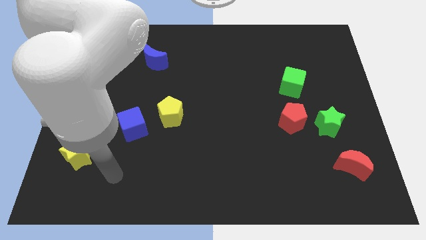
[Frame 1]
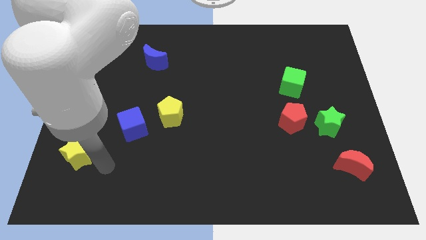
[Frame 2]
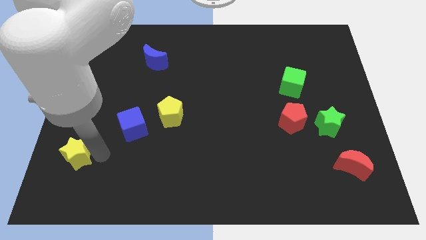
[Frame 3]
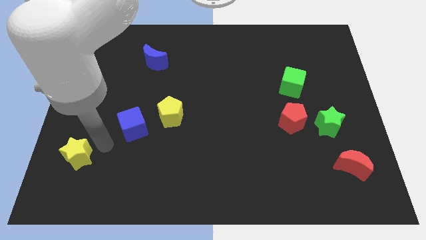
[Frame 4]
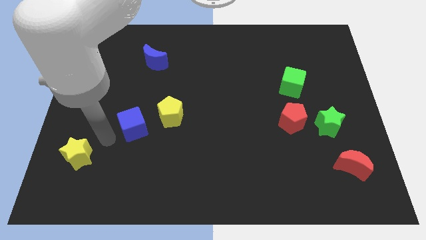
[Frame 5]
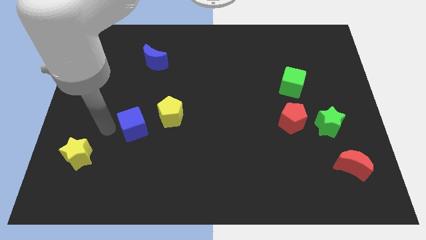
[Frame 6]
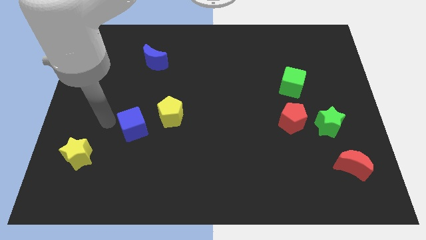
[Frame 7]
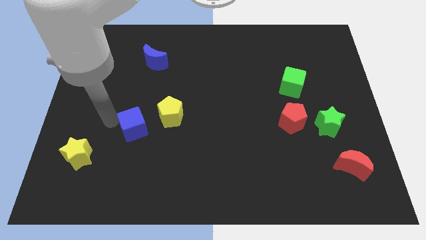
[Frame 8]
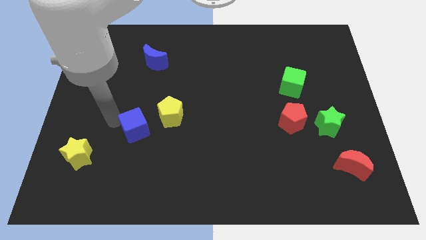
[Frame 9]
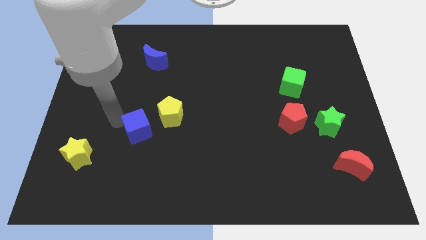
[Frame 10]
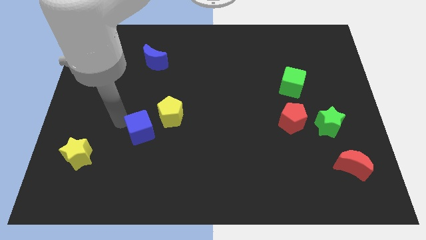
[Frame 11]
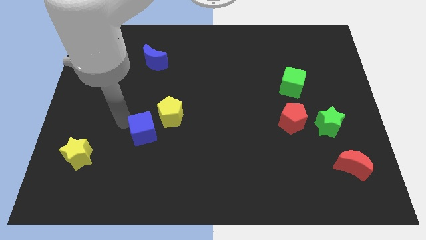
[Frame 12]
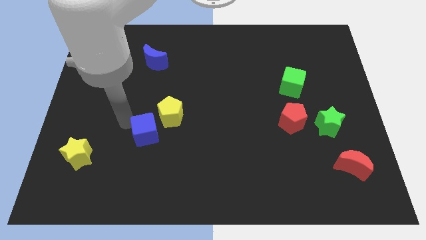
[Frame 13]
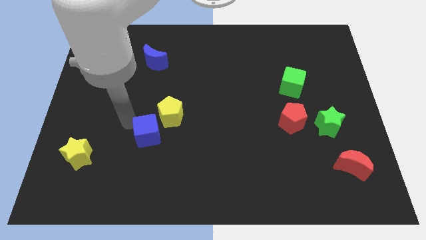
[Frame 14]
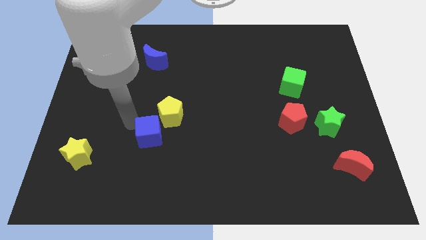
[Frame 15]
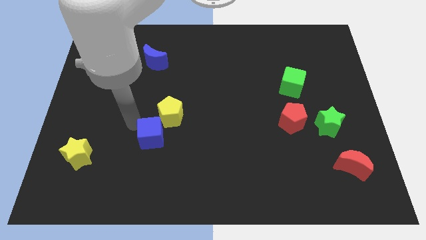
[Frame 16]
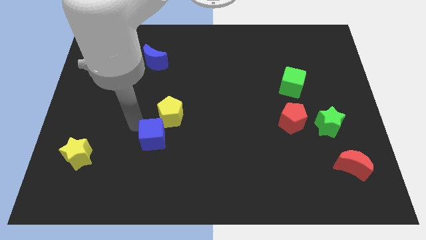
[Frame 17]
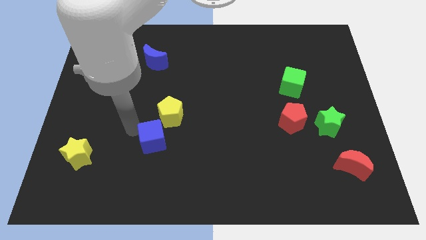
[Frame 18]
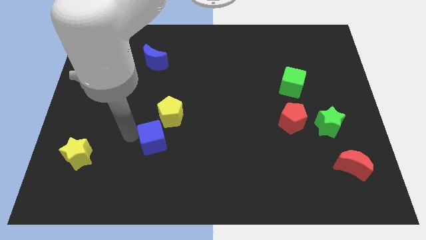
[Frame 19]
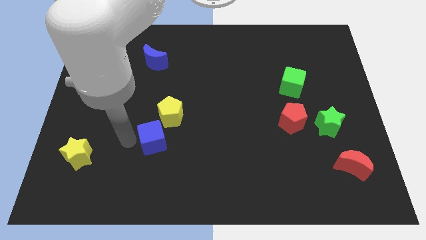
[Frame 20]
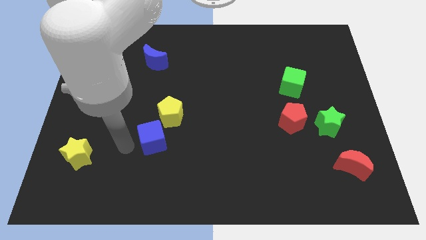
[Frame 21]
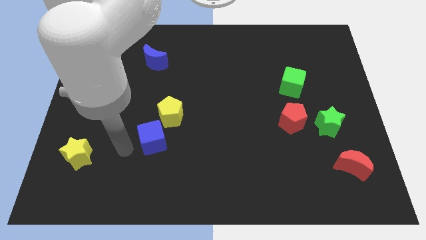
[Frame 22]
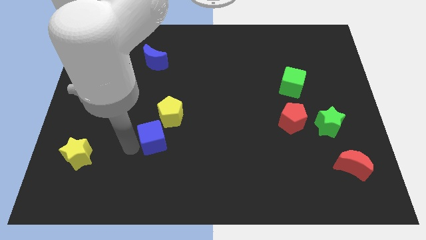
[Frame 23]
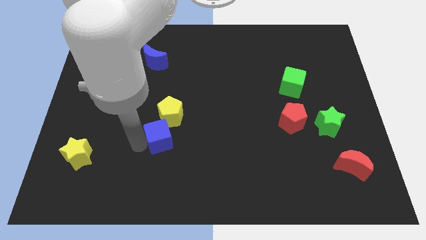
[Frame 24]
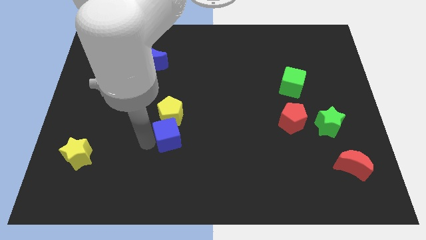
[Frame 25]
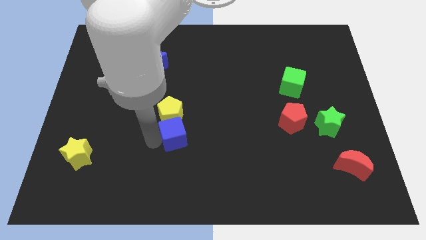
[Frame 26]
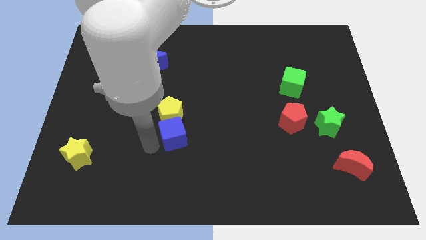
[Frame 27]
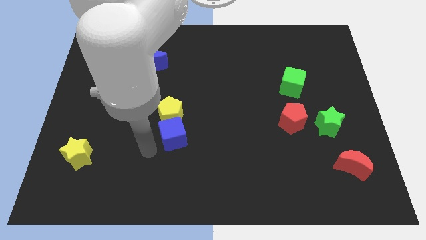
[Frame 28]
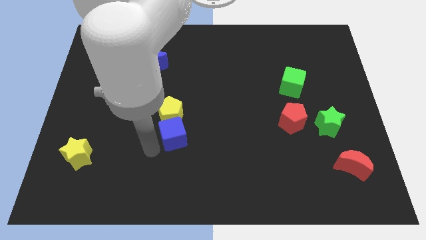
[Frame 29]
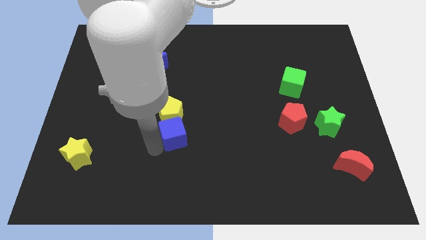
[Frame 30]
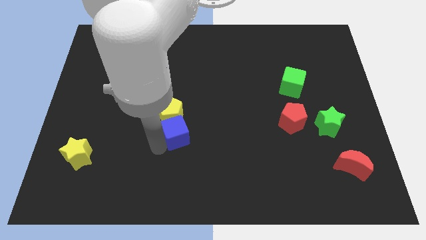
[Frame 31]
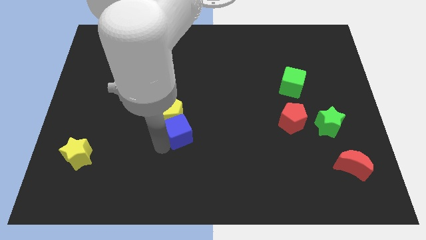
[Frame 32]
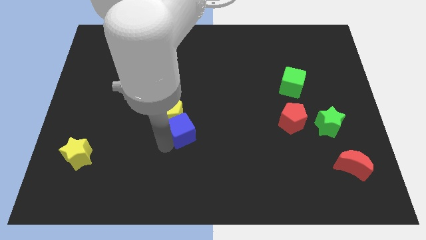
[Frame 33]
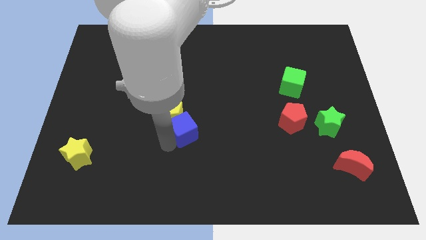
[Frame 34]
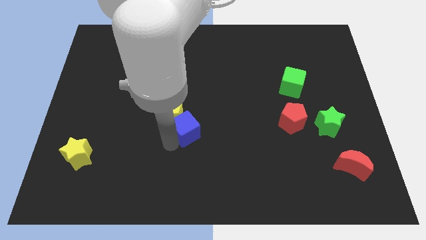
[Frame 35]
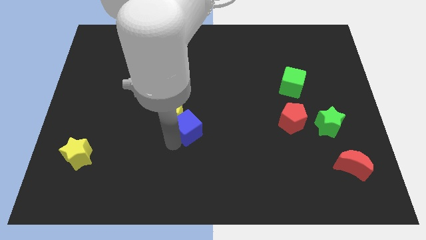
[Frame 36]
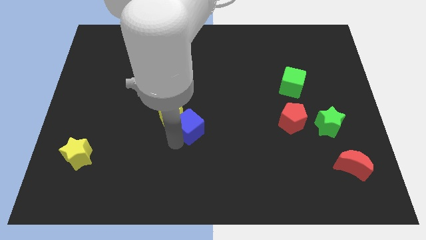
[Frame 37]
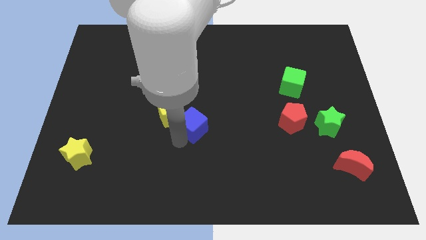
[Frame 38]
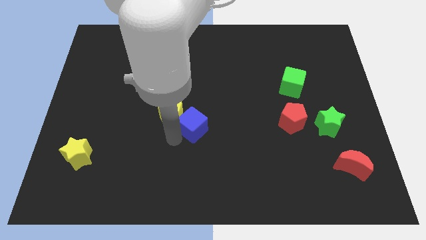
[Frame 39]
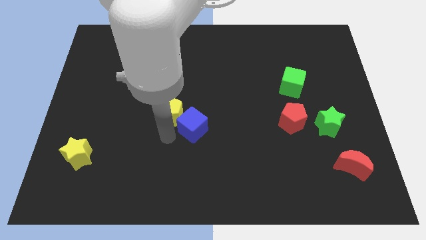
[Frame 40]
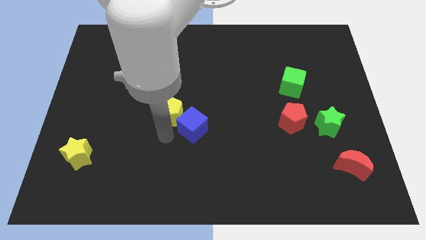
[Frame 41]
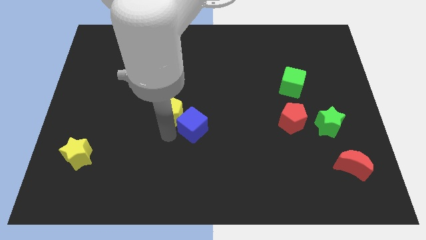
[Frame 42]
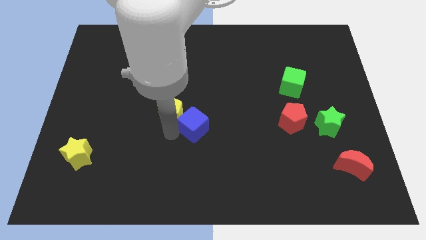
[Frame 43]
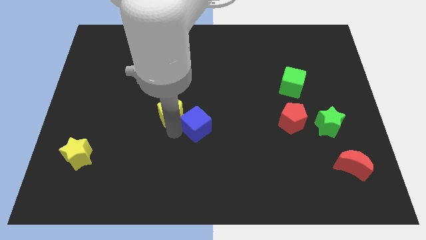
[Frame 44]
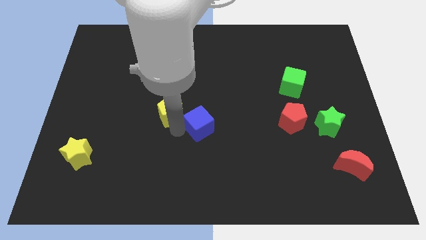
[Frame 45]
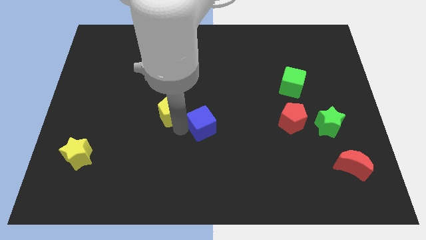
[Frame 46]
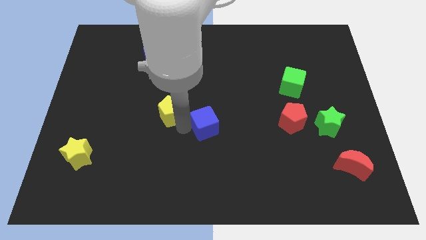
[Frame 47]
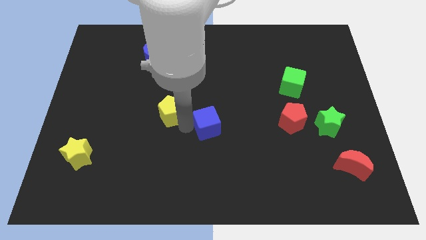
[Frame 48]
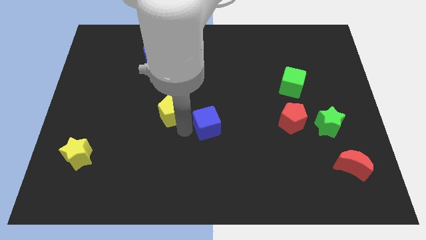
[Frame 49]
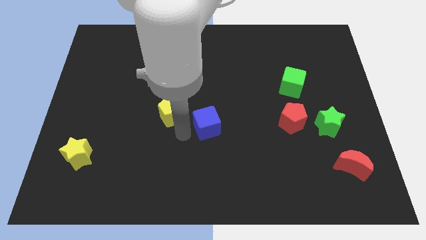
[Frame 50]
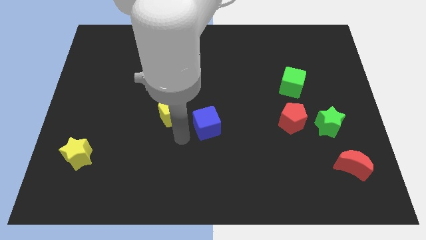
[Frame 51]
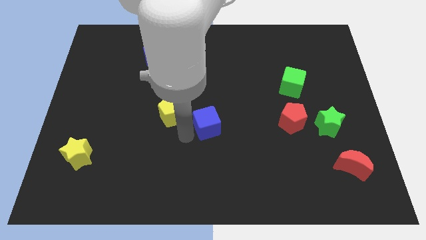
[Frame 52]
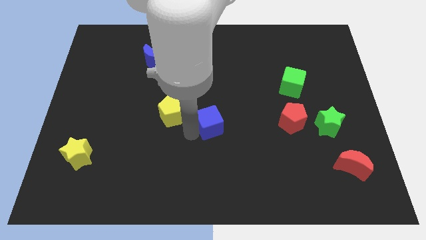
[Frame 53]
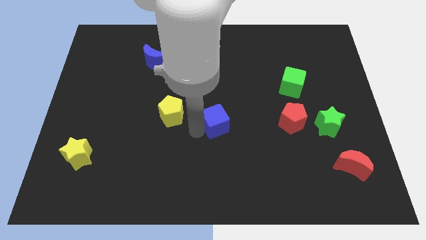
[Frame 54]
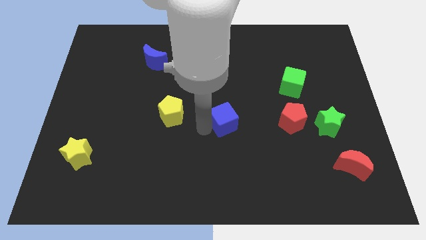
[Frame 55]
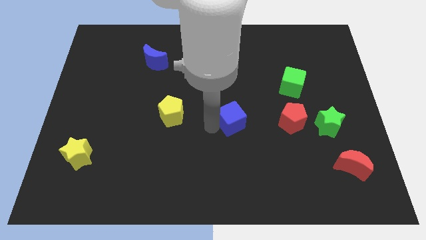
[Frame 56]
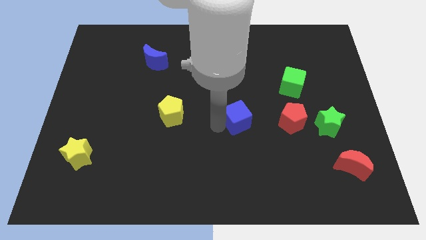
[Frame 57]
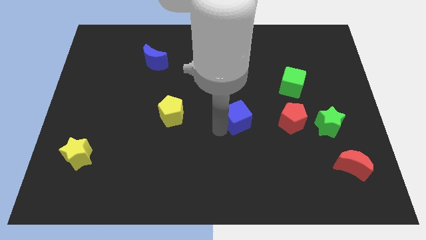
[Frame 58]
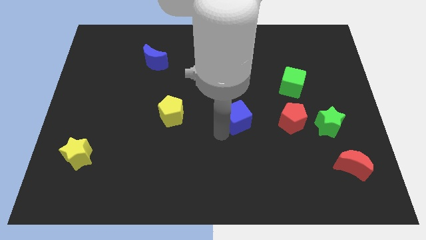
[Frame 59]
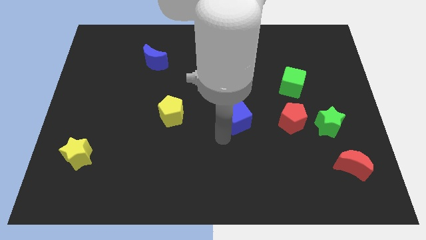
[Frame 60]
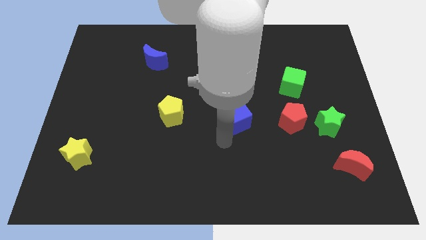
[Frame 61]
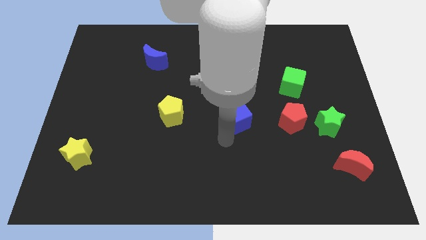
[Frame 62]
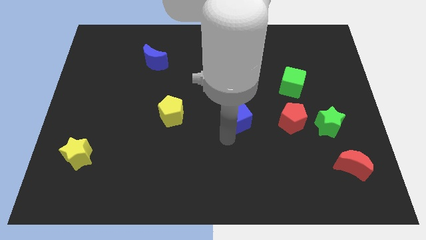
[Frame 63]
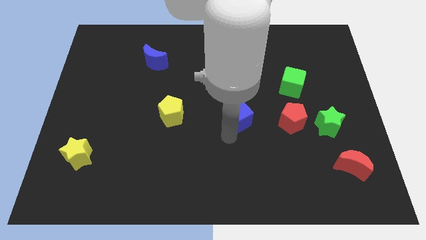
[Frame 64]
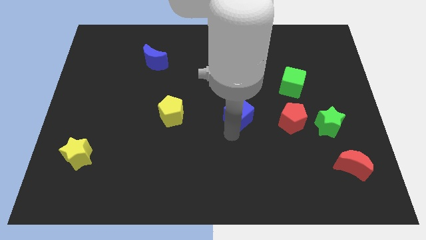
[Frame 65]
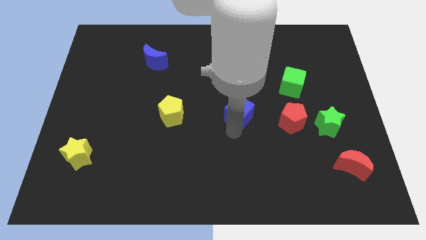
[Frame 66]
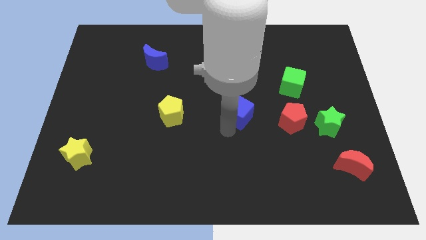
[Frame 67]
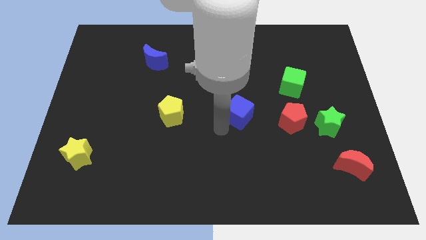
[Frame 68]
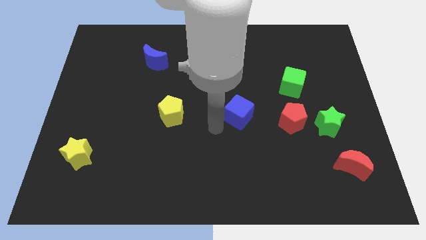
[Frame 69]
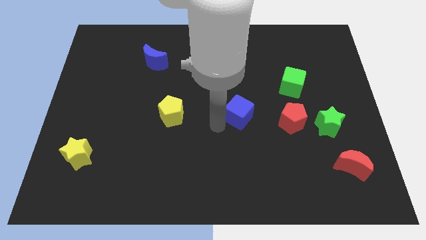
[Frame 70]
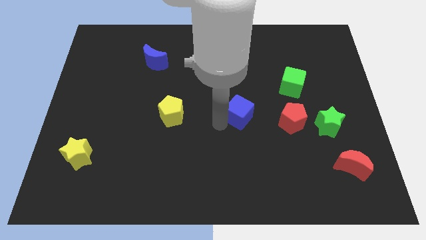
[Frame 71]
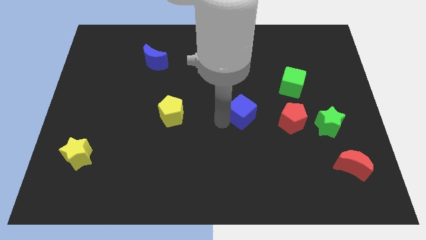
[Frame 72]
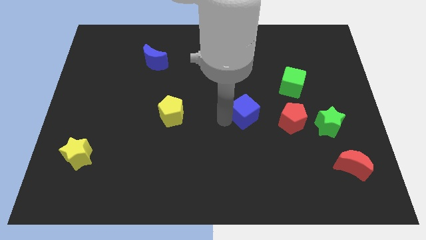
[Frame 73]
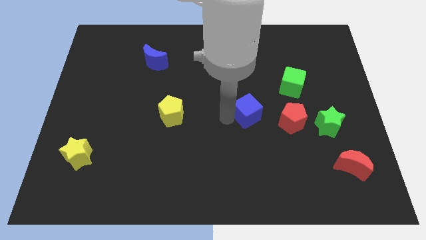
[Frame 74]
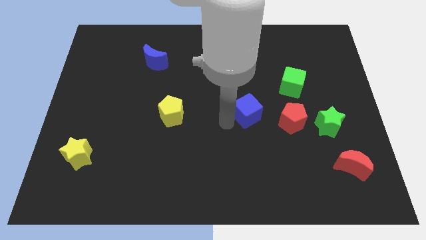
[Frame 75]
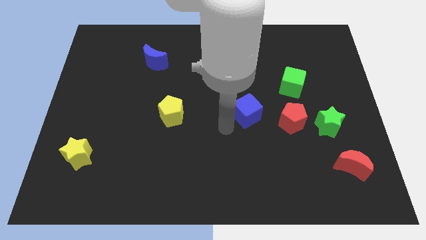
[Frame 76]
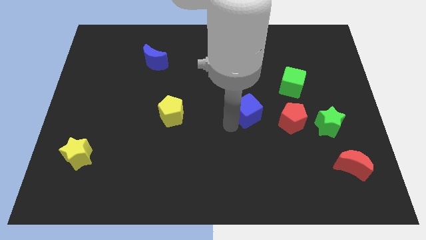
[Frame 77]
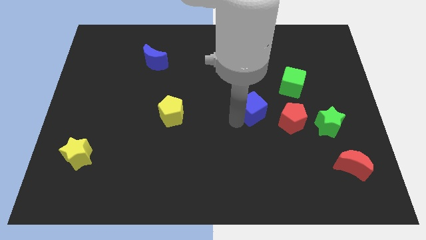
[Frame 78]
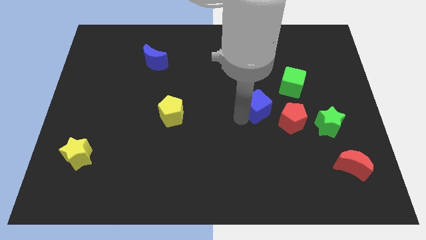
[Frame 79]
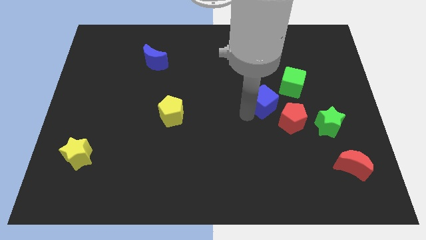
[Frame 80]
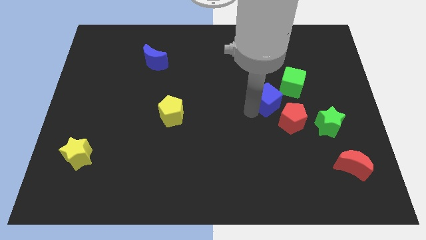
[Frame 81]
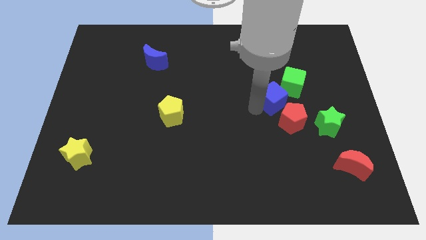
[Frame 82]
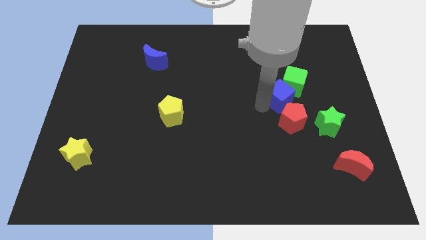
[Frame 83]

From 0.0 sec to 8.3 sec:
move the blue cube close to the green cube
